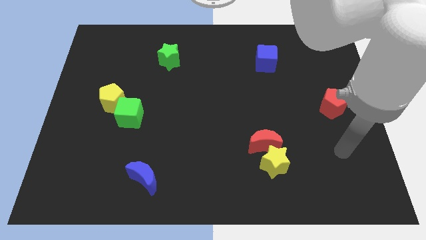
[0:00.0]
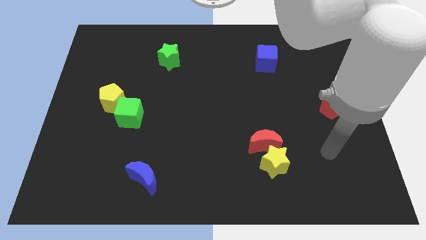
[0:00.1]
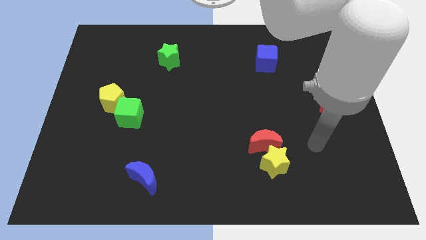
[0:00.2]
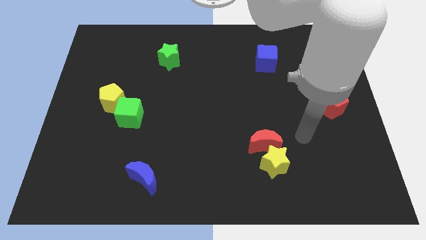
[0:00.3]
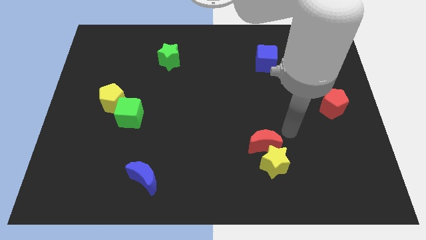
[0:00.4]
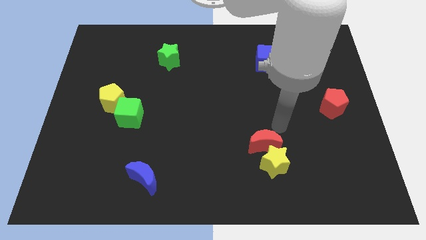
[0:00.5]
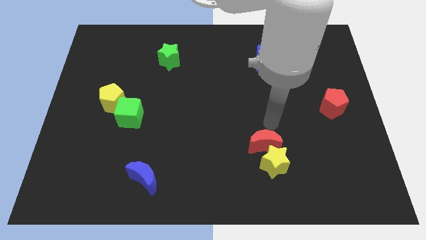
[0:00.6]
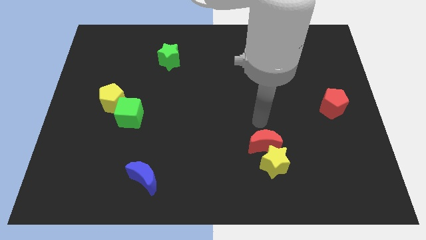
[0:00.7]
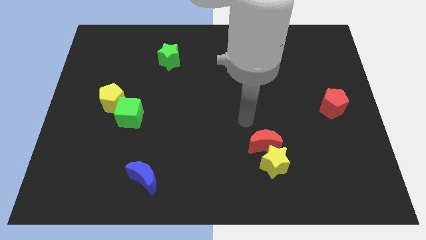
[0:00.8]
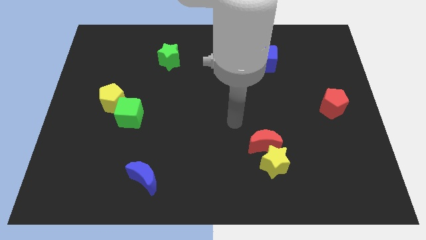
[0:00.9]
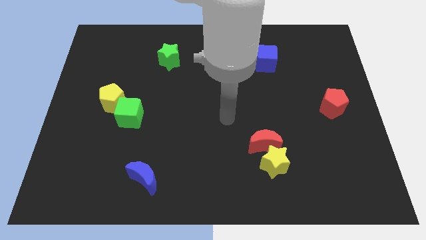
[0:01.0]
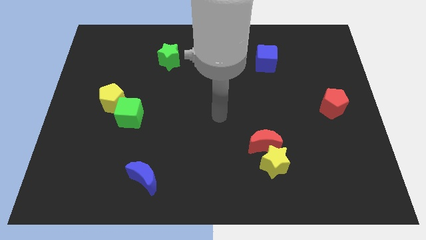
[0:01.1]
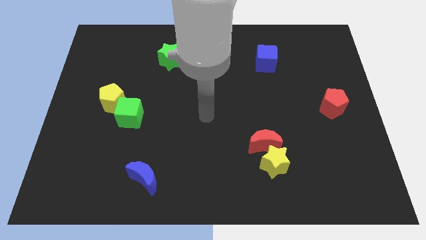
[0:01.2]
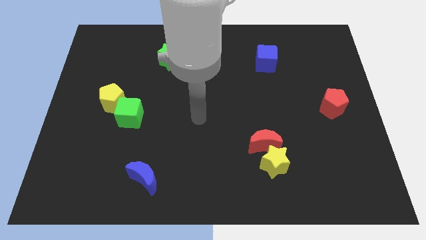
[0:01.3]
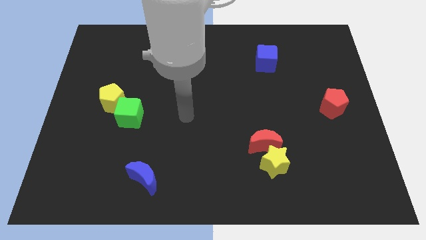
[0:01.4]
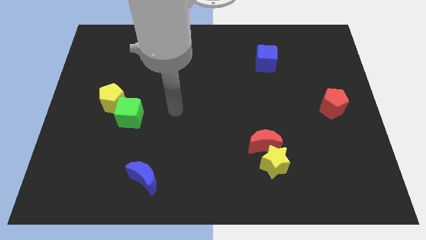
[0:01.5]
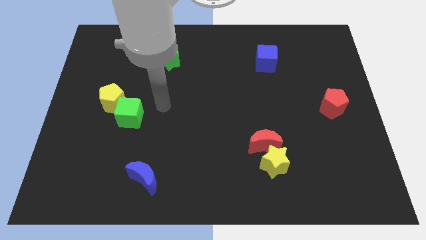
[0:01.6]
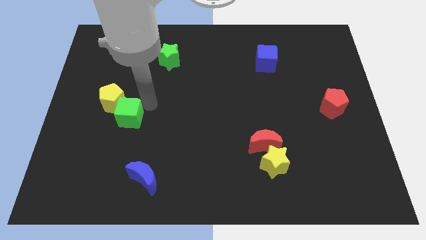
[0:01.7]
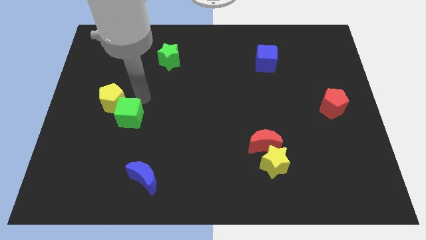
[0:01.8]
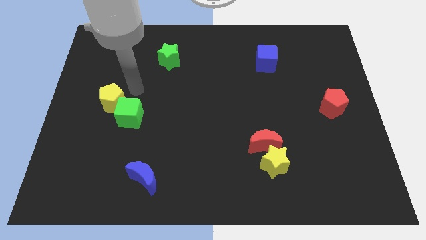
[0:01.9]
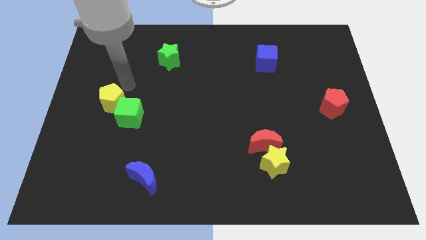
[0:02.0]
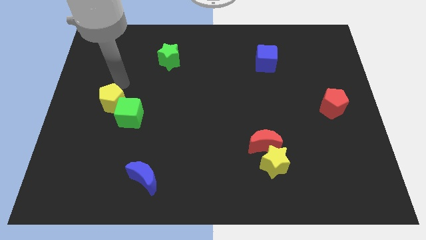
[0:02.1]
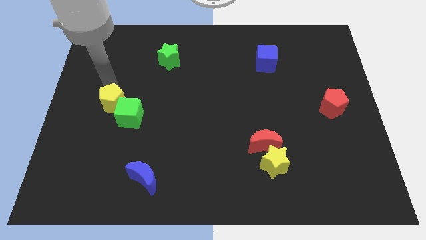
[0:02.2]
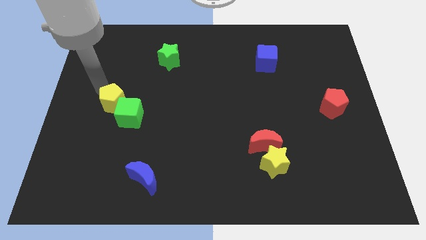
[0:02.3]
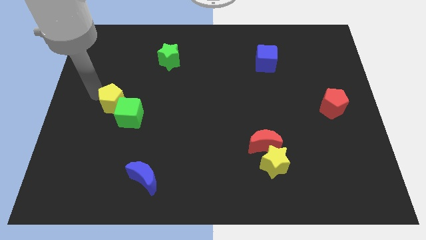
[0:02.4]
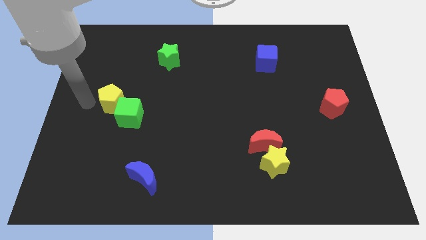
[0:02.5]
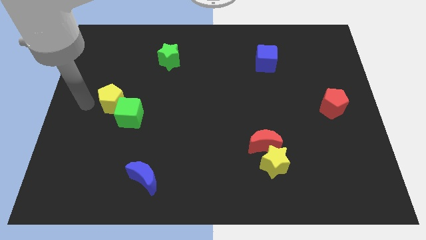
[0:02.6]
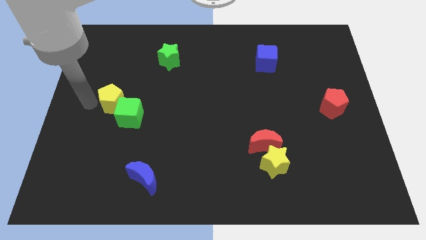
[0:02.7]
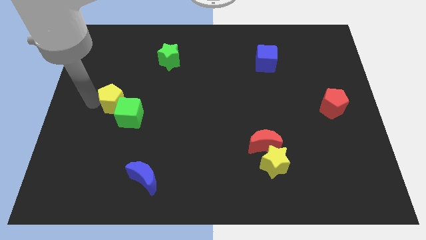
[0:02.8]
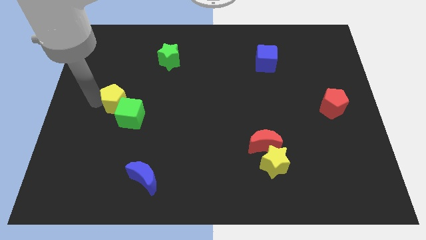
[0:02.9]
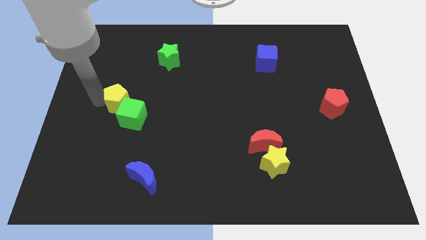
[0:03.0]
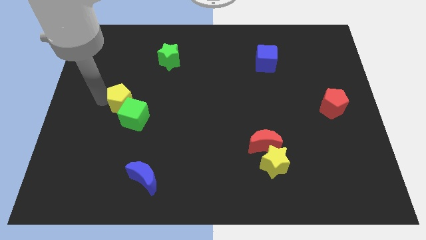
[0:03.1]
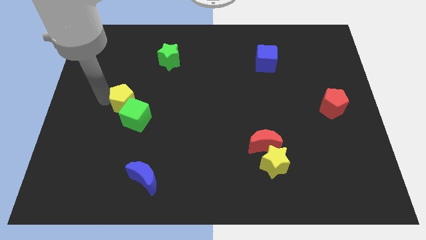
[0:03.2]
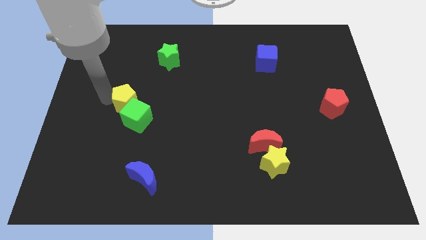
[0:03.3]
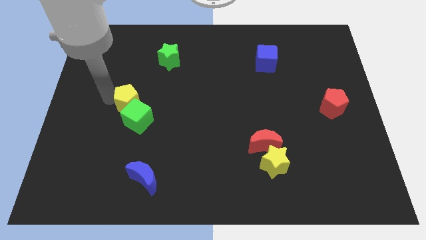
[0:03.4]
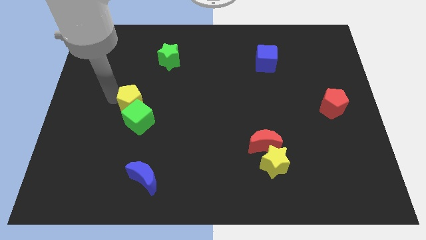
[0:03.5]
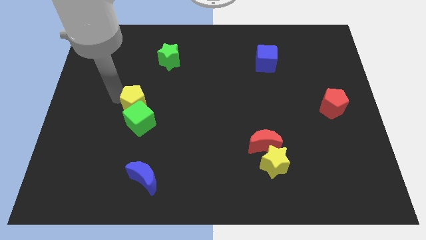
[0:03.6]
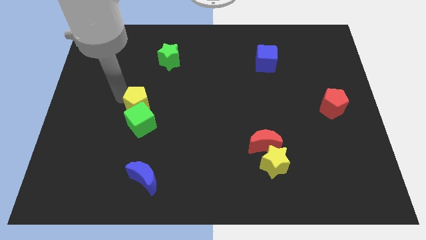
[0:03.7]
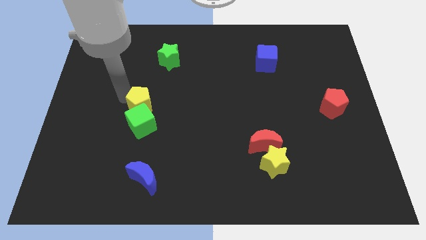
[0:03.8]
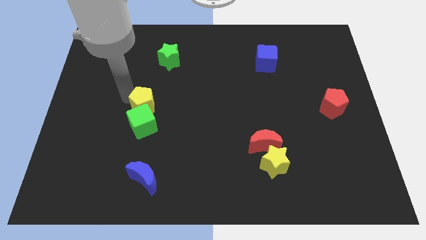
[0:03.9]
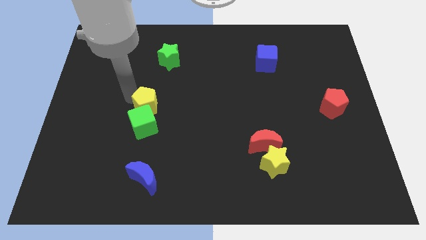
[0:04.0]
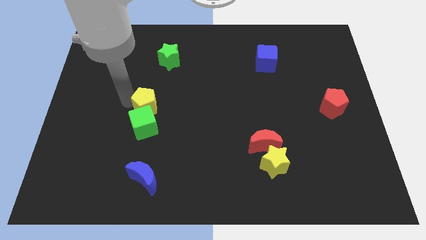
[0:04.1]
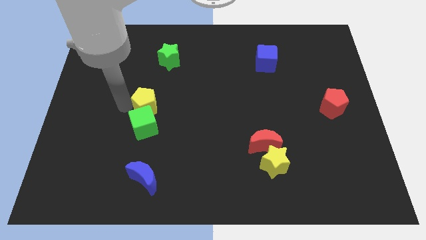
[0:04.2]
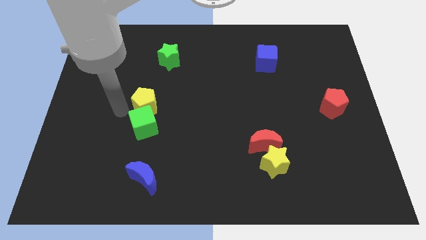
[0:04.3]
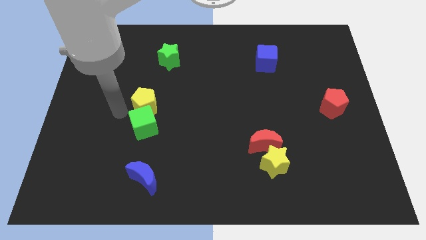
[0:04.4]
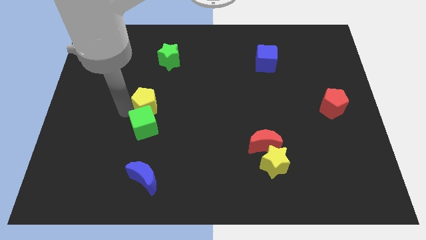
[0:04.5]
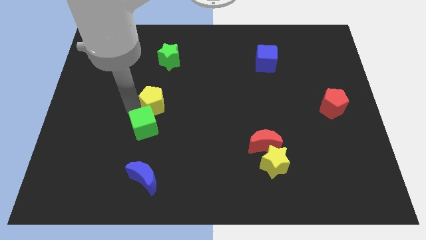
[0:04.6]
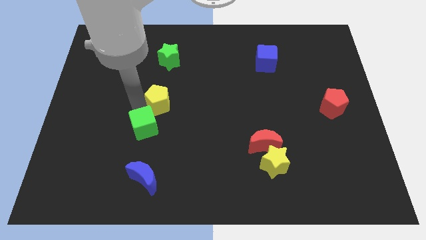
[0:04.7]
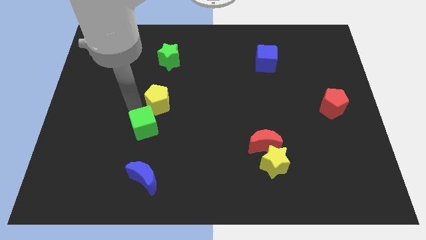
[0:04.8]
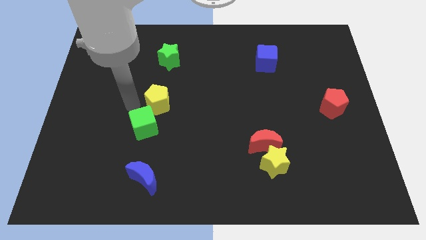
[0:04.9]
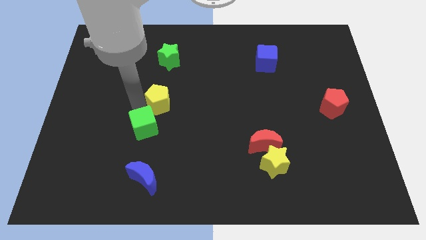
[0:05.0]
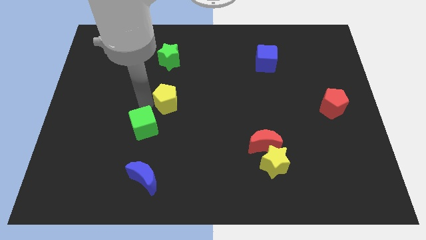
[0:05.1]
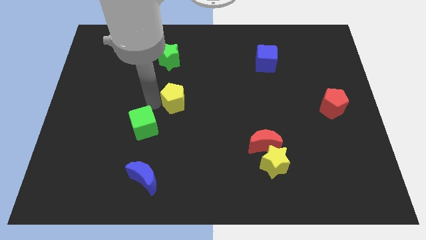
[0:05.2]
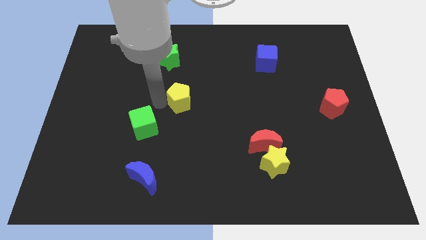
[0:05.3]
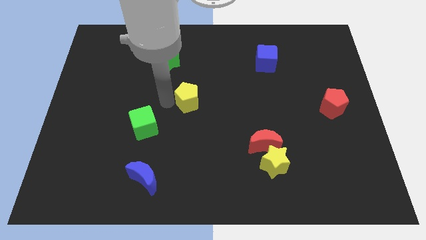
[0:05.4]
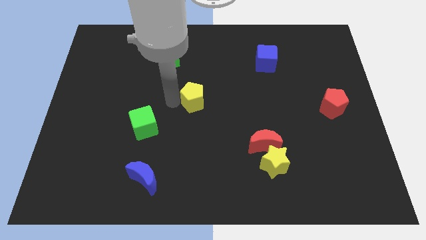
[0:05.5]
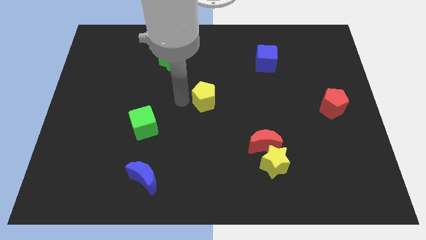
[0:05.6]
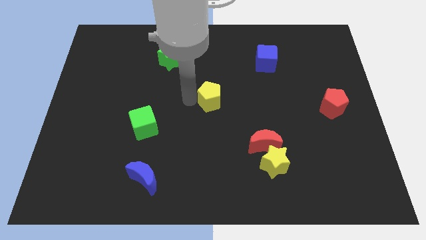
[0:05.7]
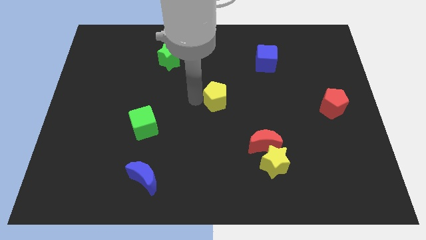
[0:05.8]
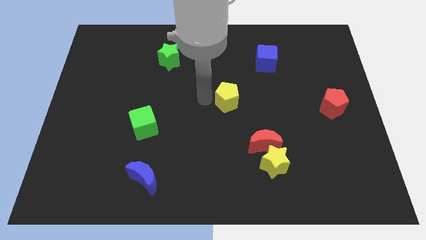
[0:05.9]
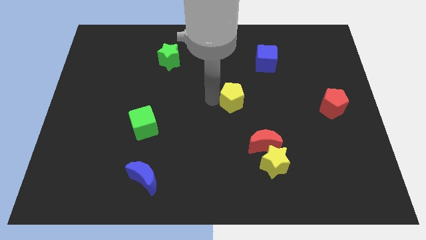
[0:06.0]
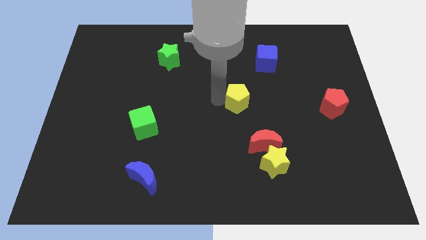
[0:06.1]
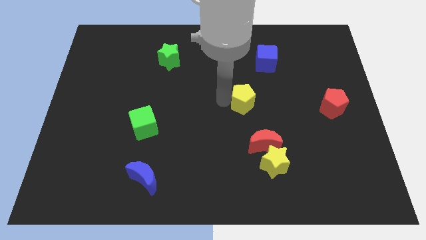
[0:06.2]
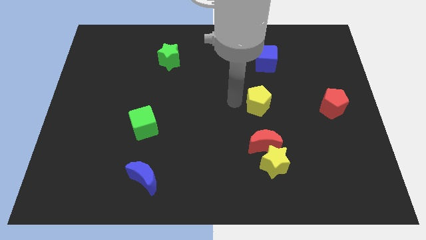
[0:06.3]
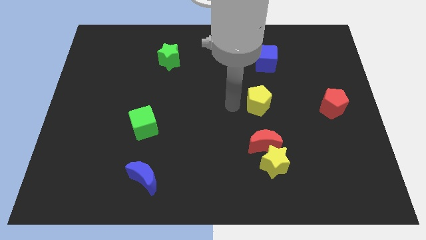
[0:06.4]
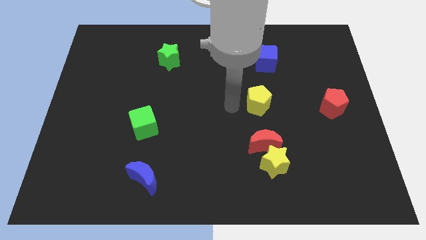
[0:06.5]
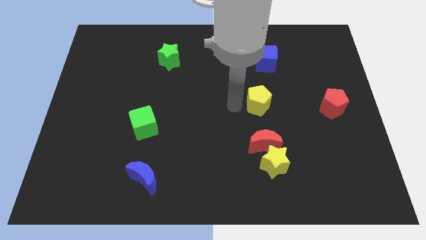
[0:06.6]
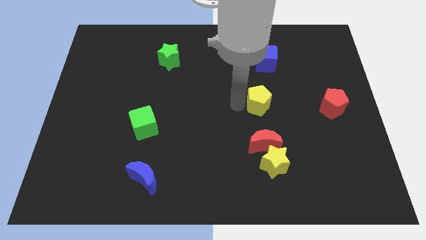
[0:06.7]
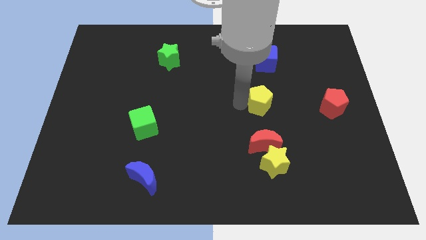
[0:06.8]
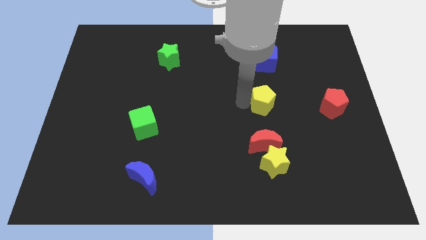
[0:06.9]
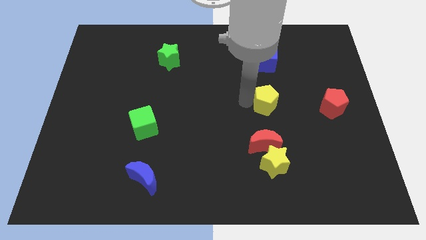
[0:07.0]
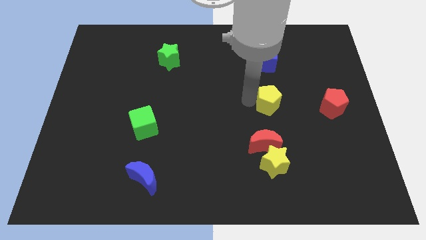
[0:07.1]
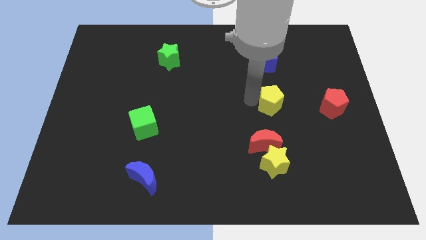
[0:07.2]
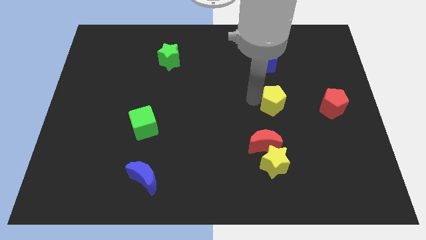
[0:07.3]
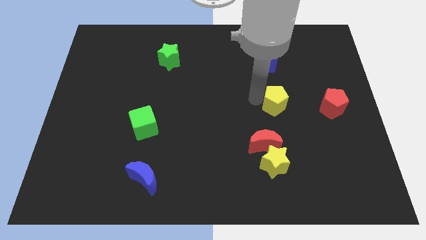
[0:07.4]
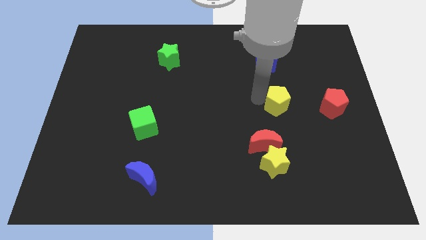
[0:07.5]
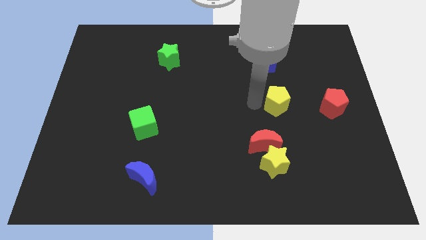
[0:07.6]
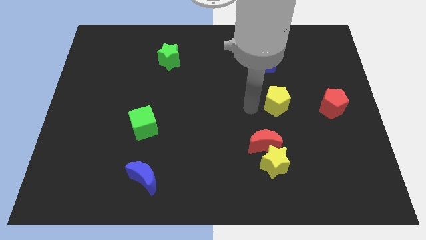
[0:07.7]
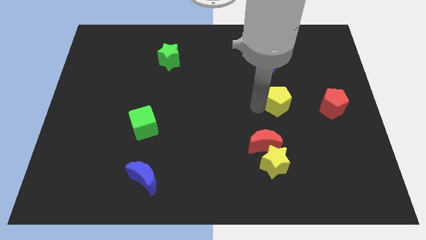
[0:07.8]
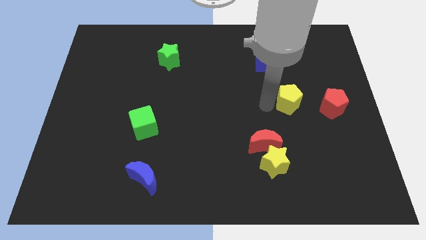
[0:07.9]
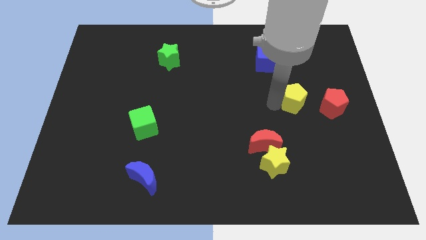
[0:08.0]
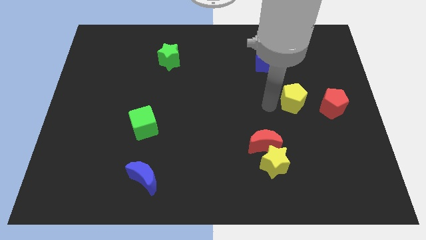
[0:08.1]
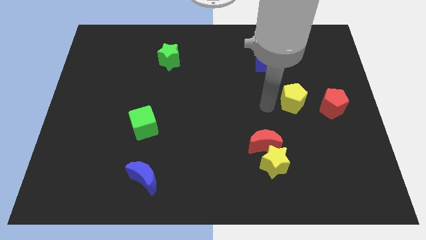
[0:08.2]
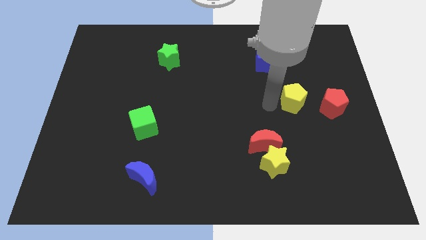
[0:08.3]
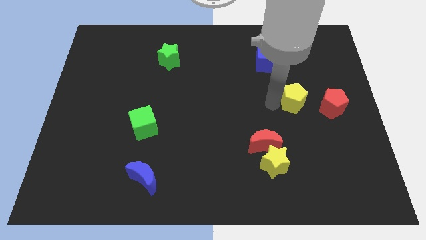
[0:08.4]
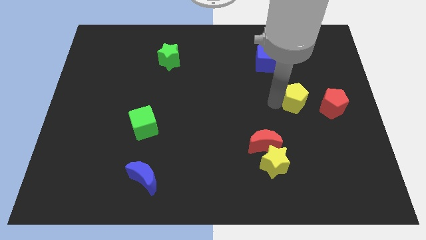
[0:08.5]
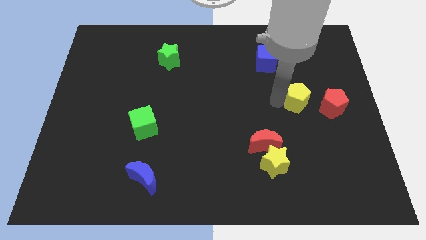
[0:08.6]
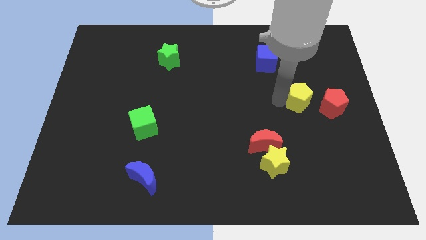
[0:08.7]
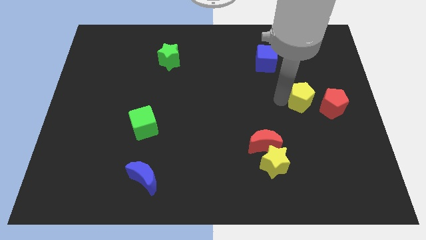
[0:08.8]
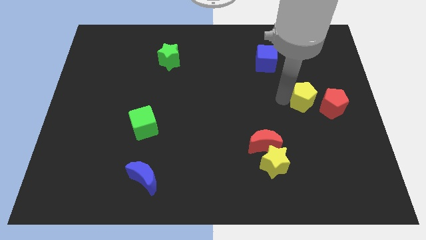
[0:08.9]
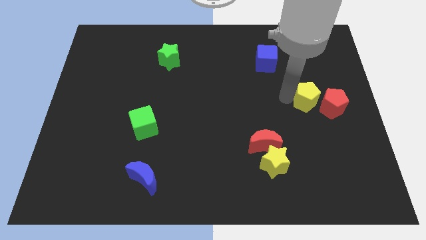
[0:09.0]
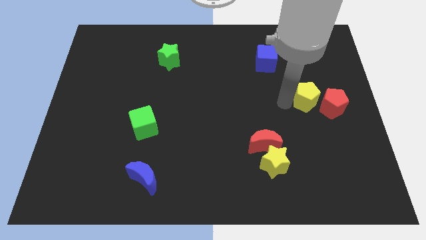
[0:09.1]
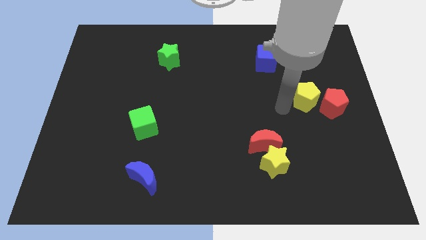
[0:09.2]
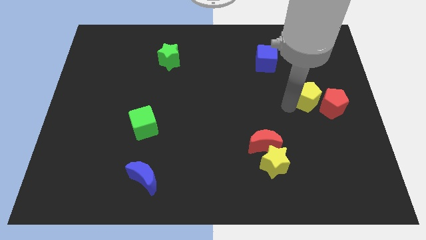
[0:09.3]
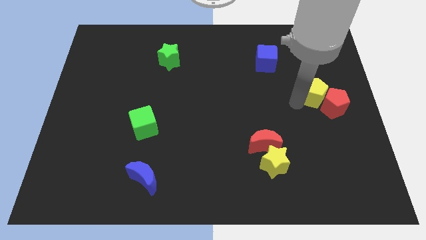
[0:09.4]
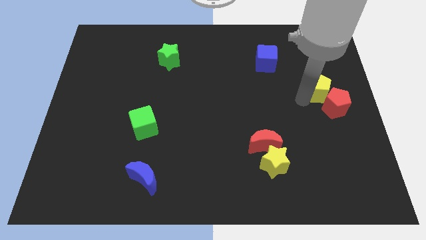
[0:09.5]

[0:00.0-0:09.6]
push the yellow pentagon to the center right
